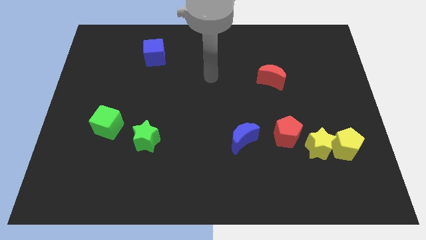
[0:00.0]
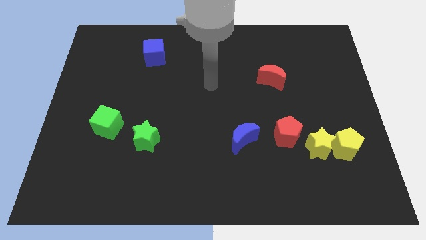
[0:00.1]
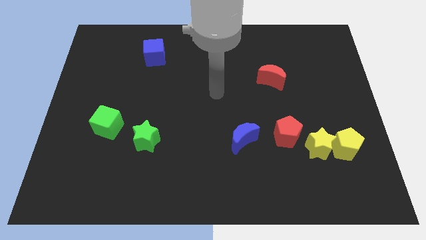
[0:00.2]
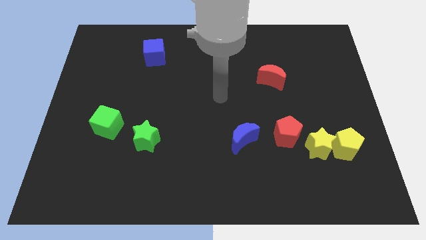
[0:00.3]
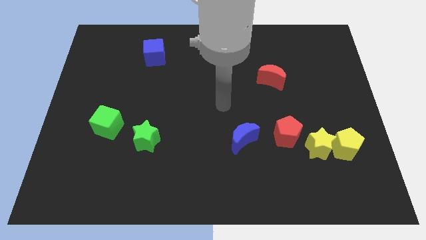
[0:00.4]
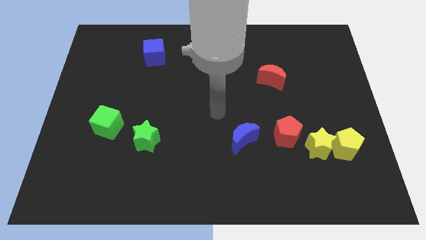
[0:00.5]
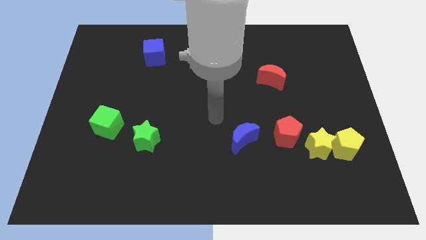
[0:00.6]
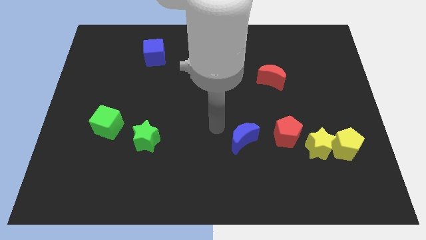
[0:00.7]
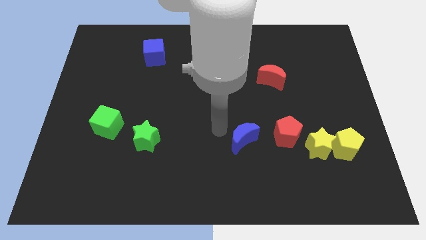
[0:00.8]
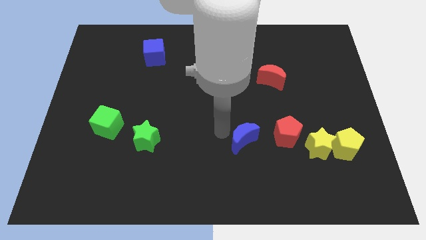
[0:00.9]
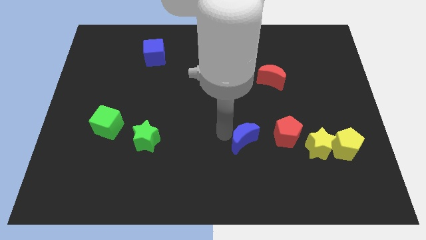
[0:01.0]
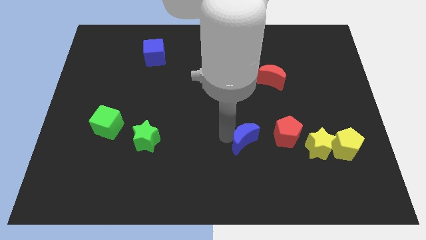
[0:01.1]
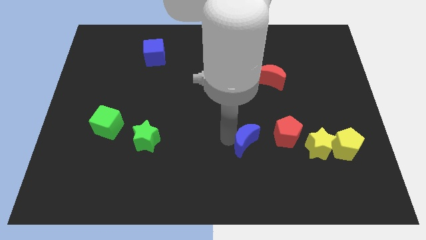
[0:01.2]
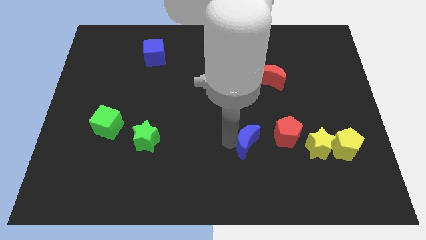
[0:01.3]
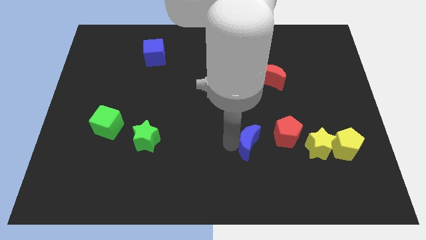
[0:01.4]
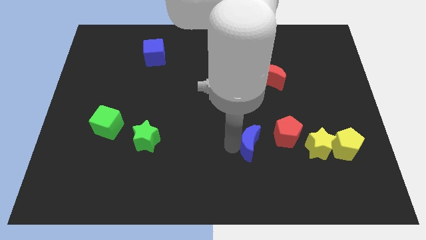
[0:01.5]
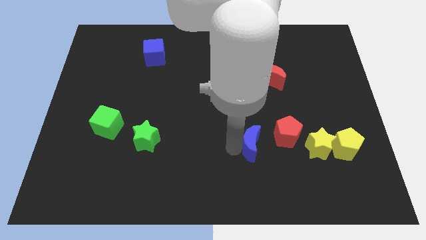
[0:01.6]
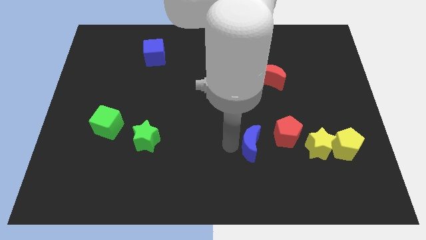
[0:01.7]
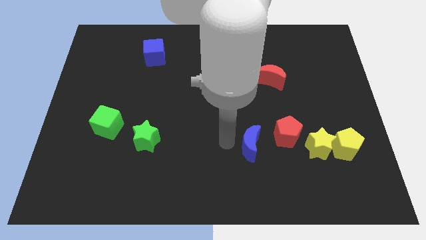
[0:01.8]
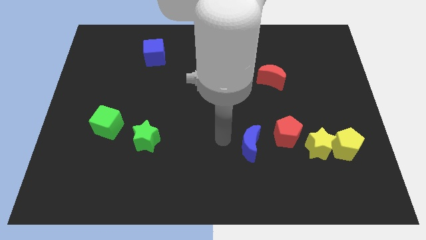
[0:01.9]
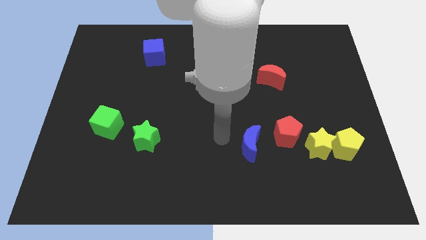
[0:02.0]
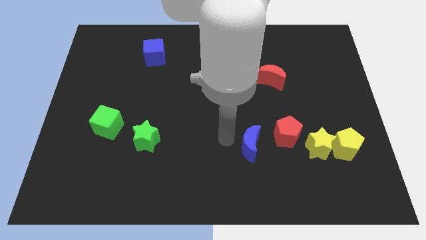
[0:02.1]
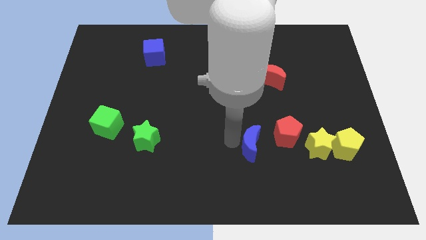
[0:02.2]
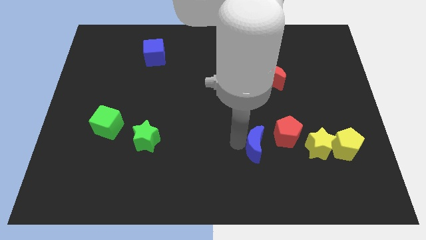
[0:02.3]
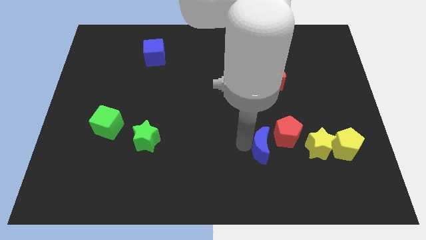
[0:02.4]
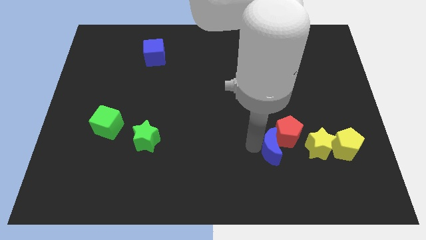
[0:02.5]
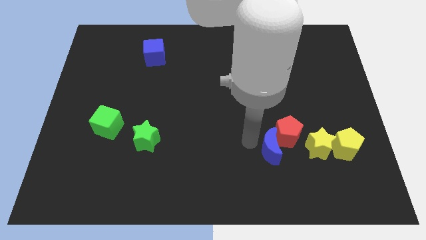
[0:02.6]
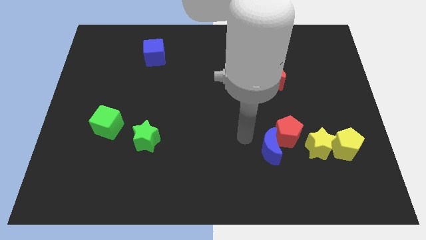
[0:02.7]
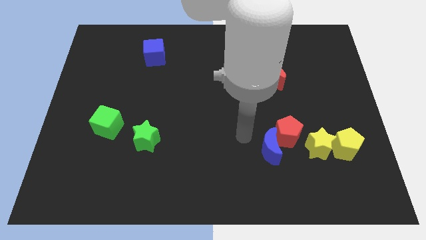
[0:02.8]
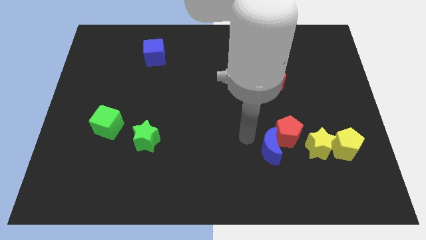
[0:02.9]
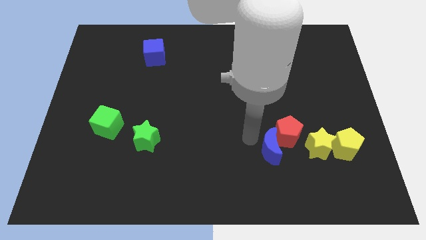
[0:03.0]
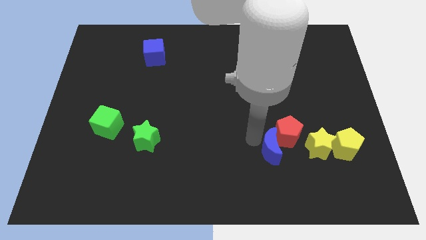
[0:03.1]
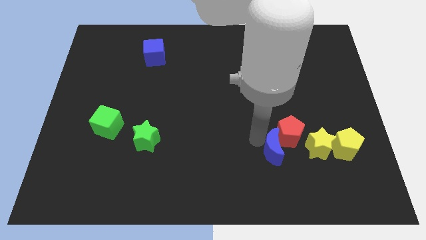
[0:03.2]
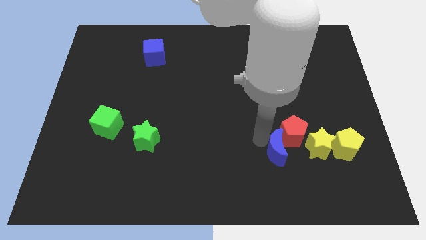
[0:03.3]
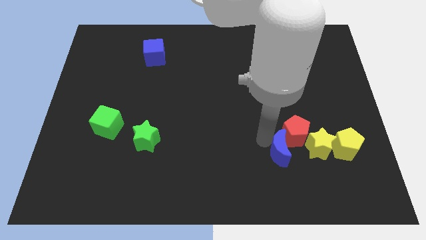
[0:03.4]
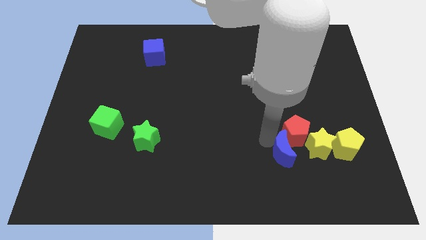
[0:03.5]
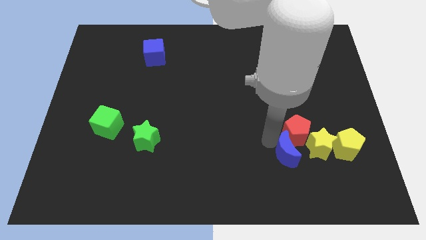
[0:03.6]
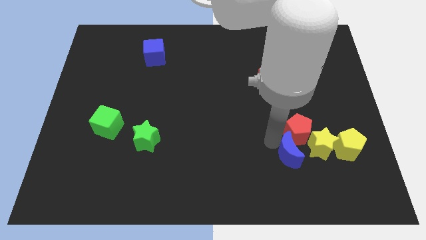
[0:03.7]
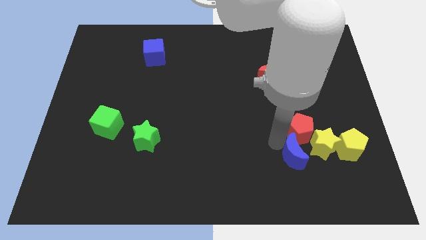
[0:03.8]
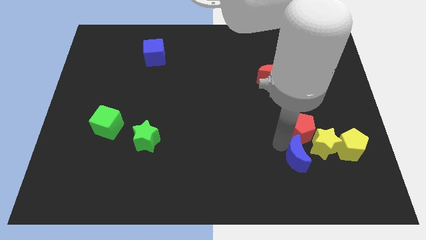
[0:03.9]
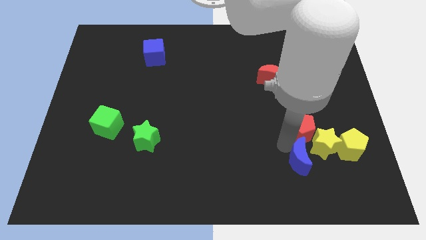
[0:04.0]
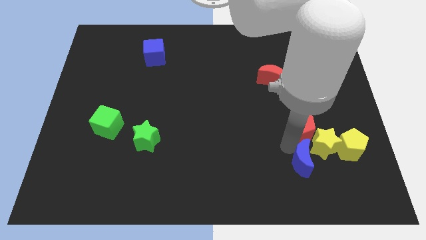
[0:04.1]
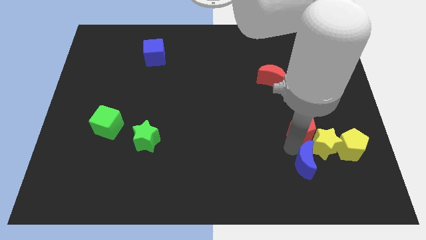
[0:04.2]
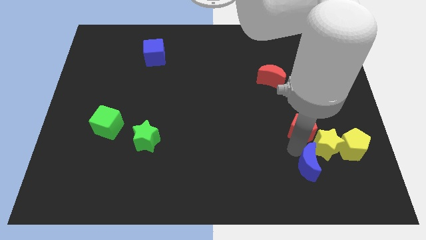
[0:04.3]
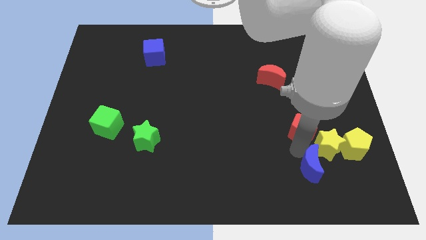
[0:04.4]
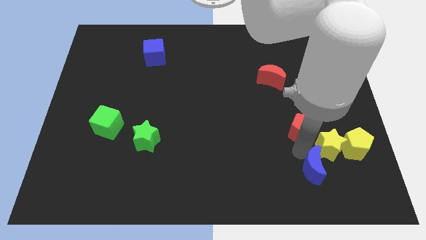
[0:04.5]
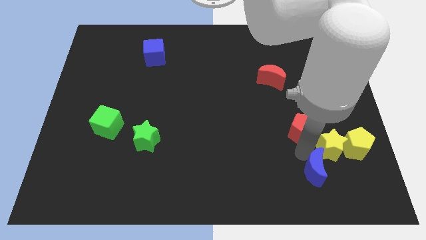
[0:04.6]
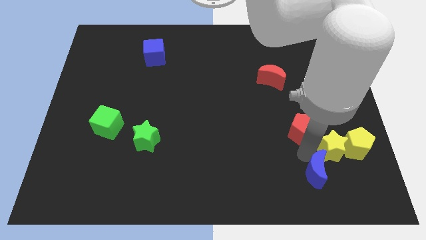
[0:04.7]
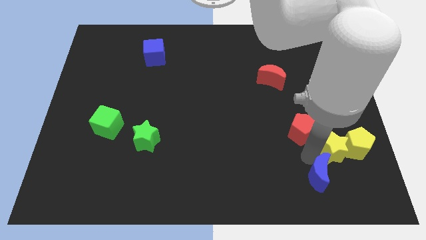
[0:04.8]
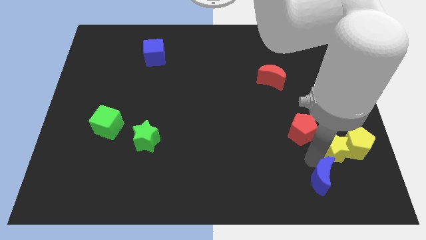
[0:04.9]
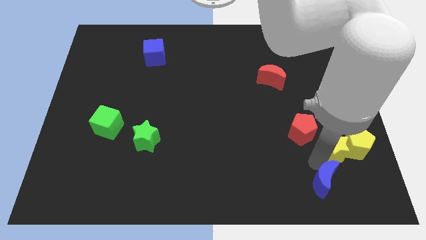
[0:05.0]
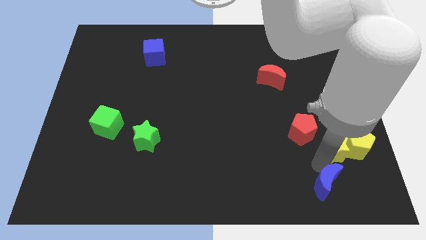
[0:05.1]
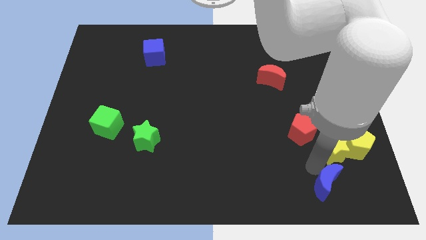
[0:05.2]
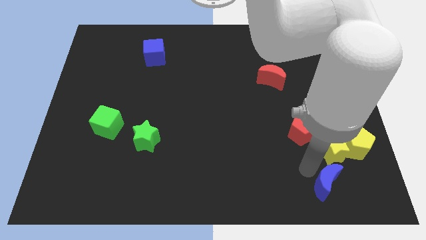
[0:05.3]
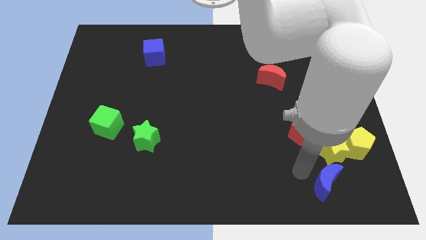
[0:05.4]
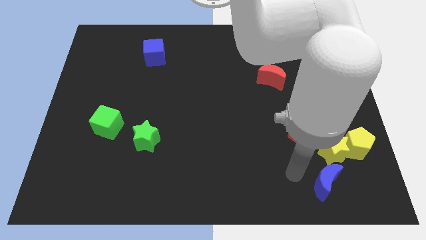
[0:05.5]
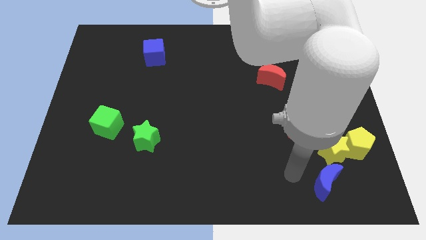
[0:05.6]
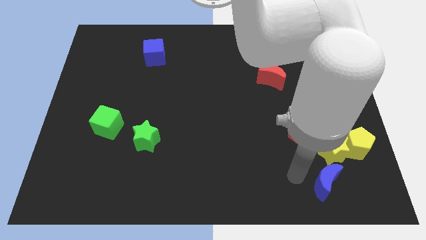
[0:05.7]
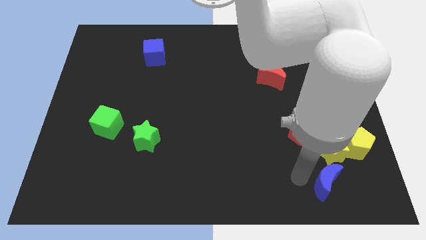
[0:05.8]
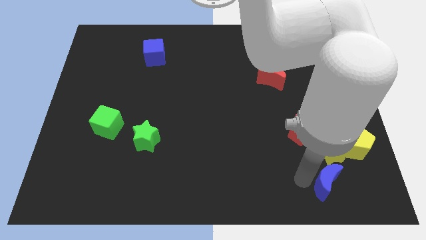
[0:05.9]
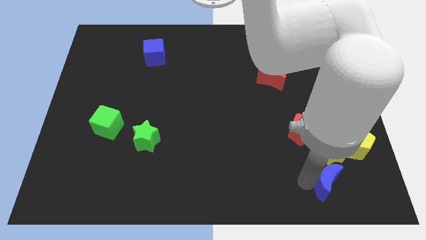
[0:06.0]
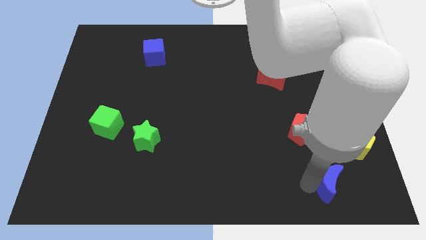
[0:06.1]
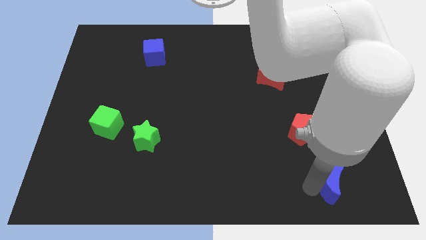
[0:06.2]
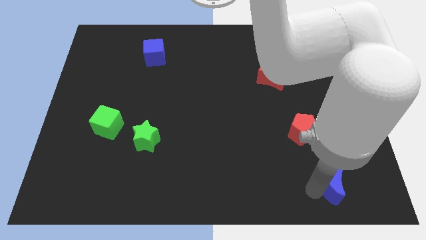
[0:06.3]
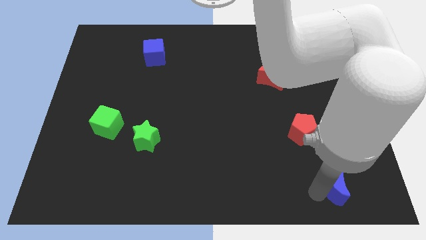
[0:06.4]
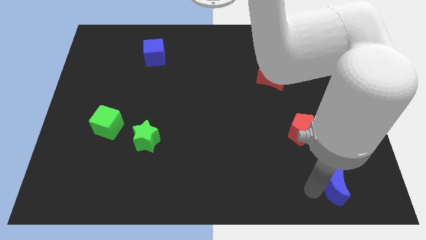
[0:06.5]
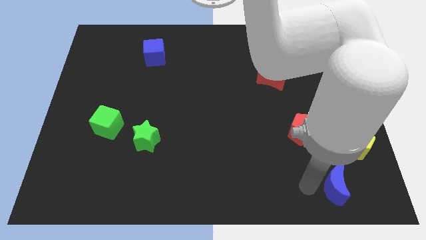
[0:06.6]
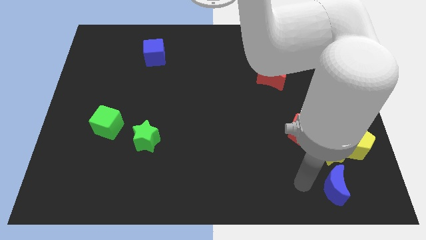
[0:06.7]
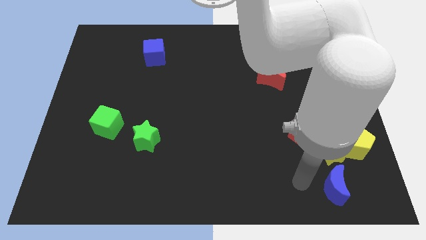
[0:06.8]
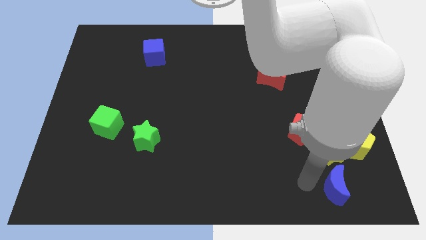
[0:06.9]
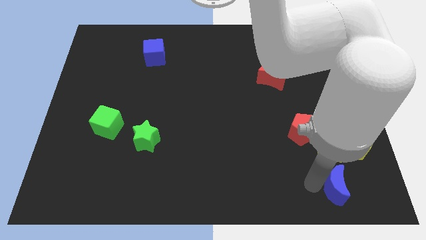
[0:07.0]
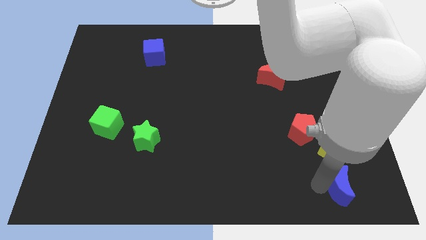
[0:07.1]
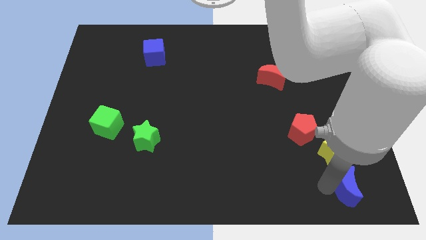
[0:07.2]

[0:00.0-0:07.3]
move the blue moon to the bottom right of the board
